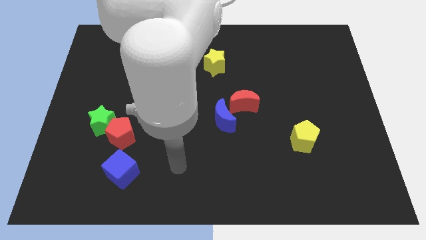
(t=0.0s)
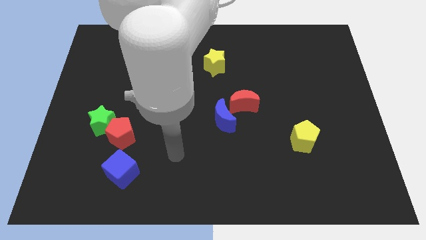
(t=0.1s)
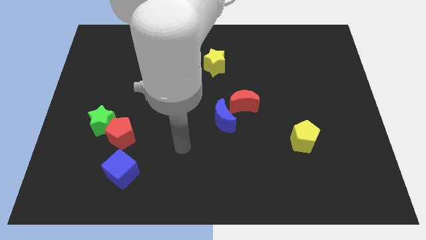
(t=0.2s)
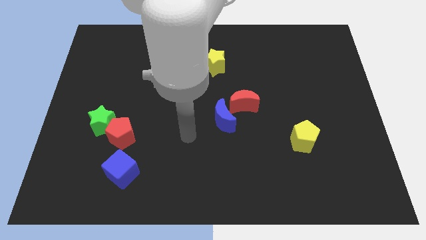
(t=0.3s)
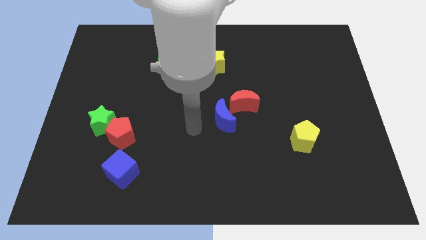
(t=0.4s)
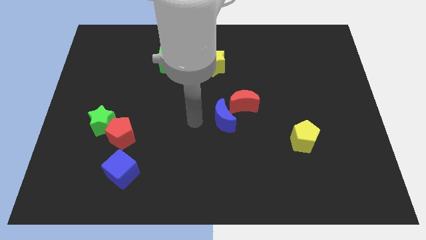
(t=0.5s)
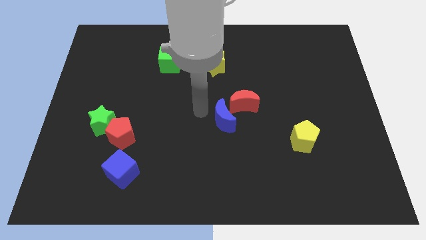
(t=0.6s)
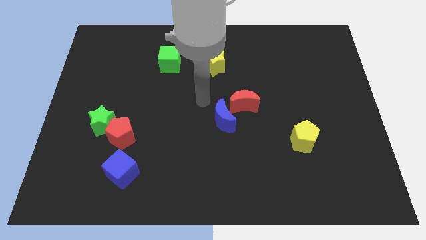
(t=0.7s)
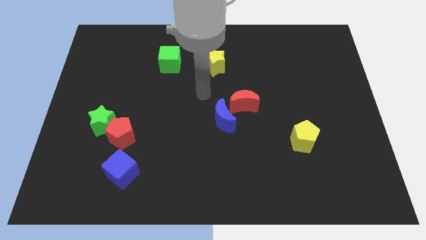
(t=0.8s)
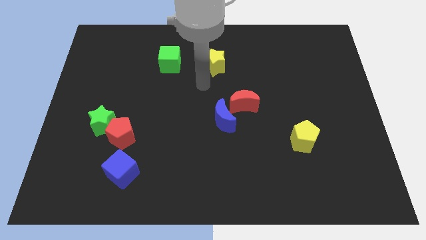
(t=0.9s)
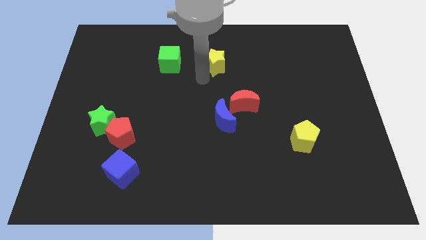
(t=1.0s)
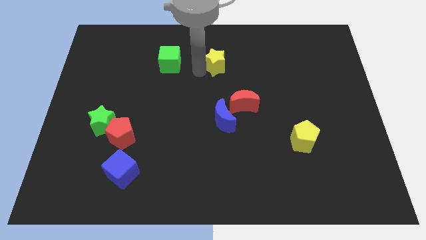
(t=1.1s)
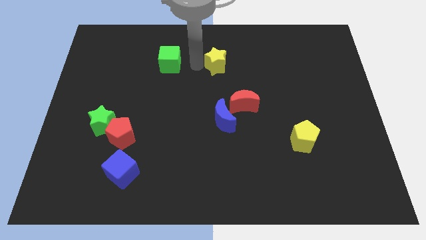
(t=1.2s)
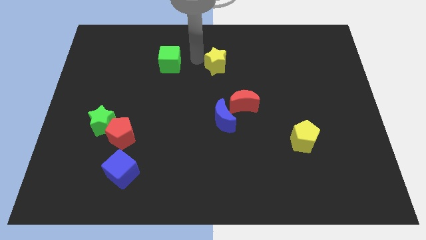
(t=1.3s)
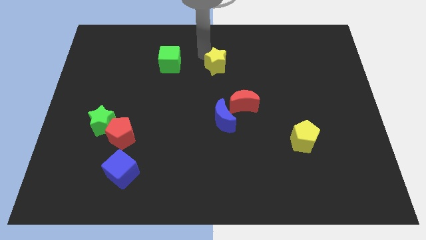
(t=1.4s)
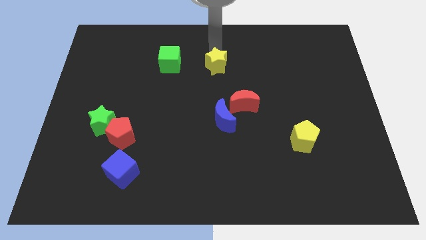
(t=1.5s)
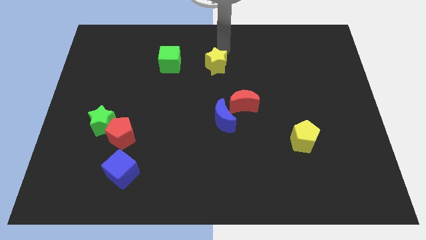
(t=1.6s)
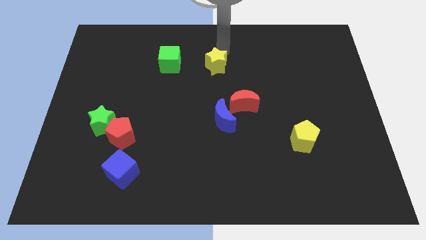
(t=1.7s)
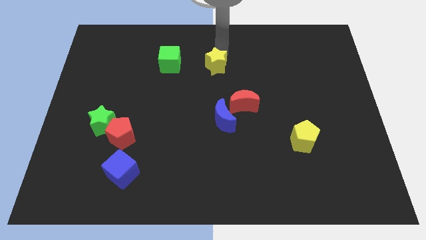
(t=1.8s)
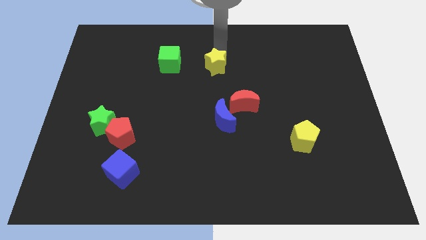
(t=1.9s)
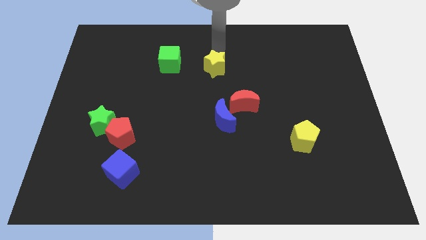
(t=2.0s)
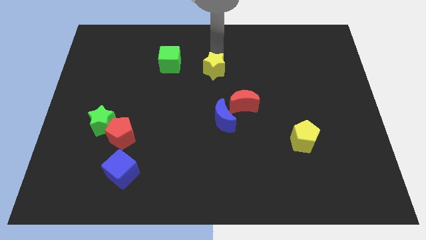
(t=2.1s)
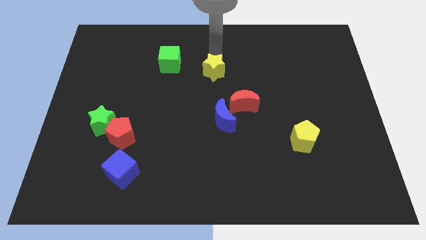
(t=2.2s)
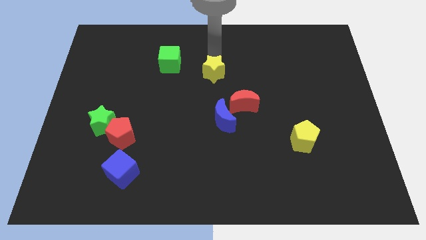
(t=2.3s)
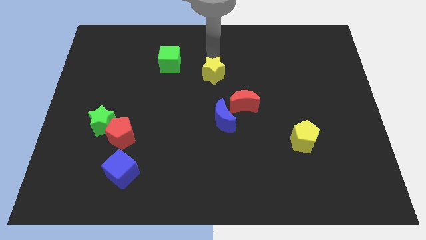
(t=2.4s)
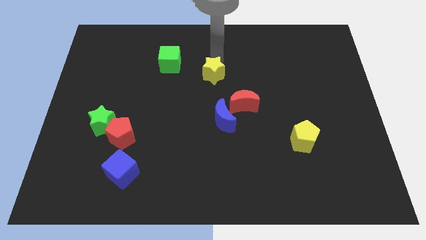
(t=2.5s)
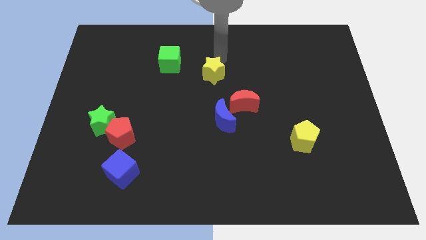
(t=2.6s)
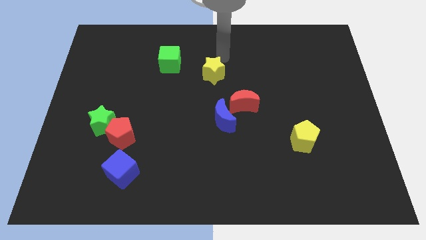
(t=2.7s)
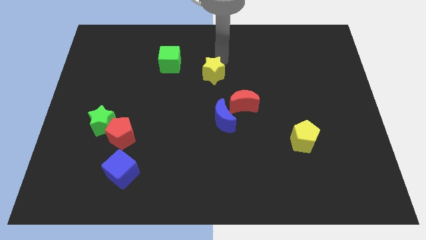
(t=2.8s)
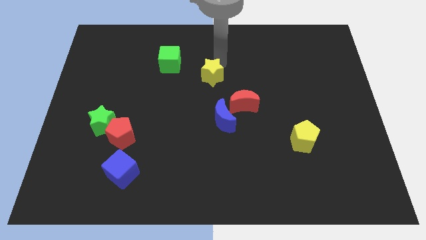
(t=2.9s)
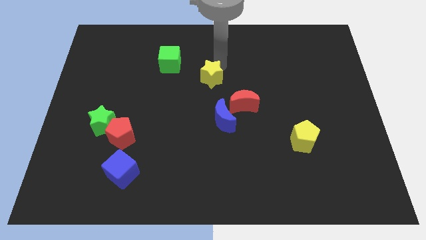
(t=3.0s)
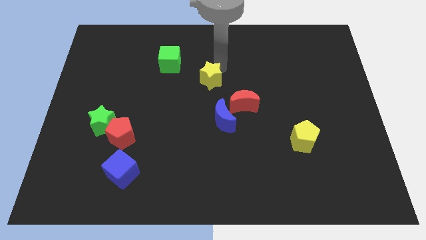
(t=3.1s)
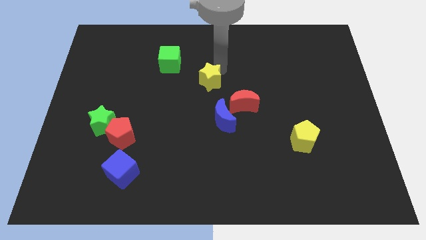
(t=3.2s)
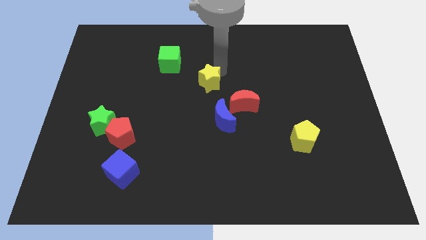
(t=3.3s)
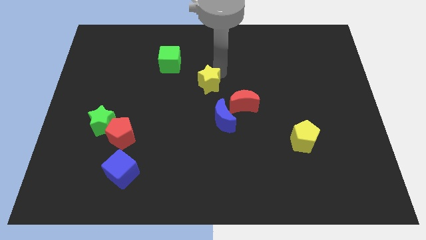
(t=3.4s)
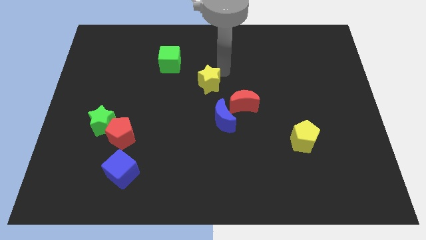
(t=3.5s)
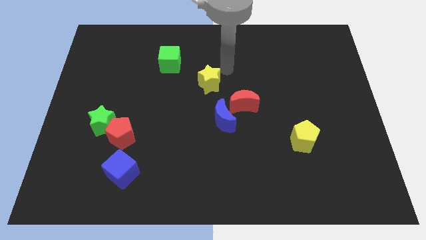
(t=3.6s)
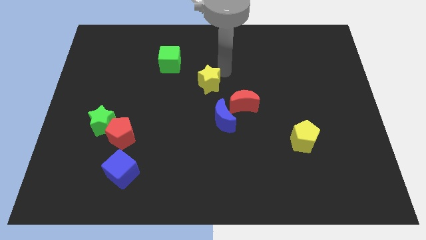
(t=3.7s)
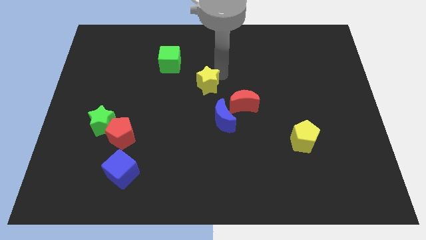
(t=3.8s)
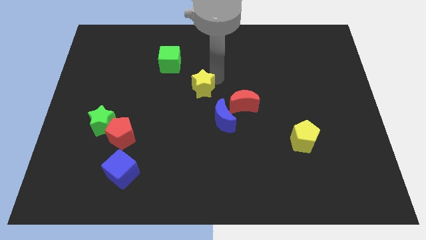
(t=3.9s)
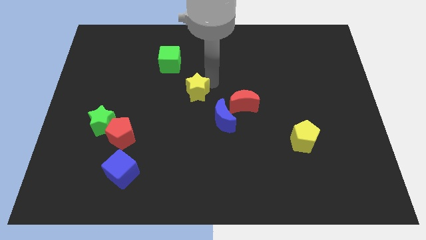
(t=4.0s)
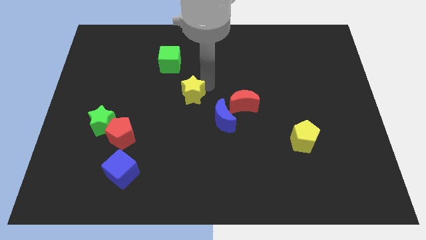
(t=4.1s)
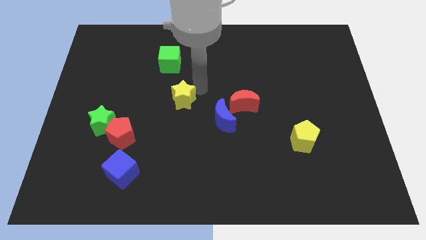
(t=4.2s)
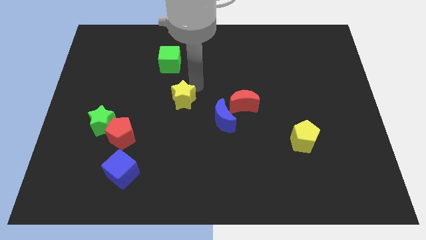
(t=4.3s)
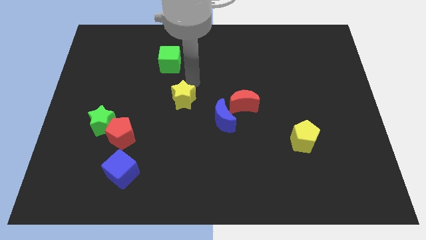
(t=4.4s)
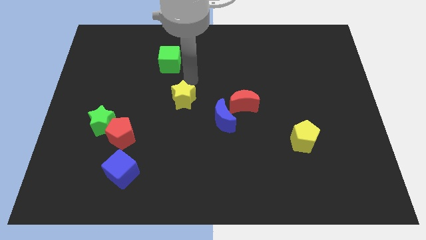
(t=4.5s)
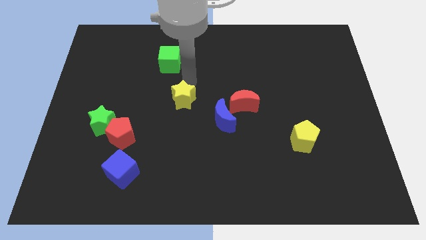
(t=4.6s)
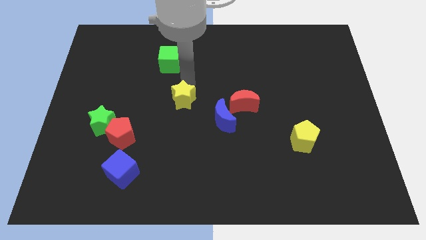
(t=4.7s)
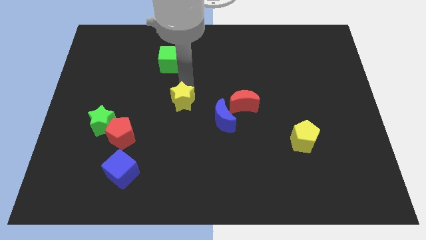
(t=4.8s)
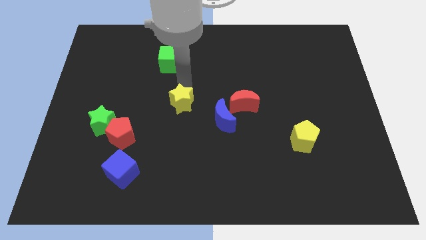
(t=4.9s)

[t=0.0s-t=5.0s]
put the yellow star left of the blue moon

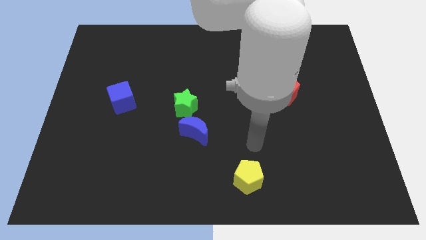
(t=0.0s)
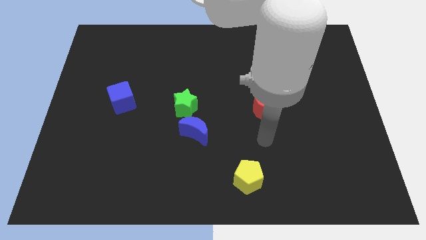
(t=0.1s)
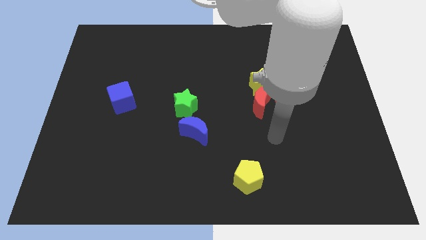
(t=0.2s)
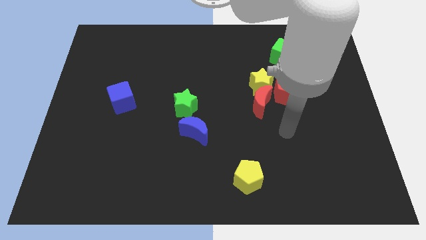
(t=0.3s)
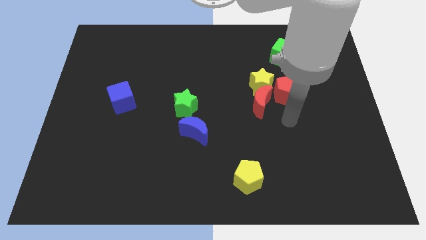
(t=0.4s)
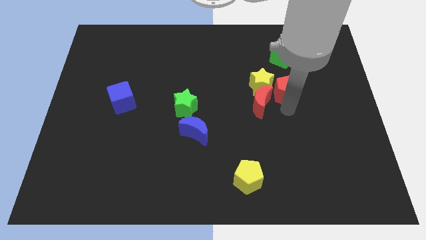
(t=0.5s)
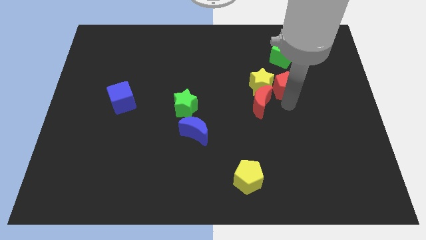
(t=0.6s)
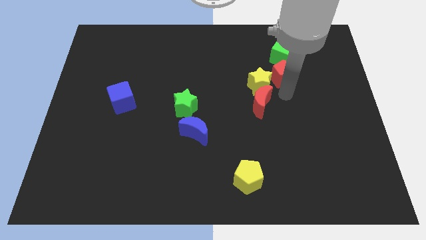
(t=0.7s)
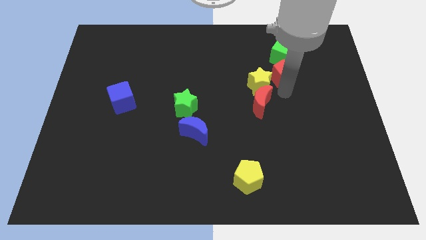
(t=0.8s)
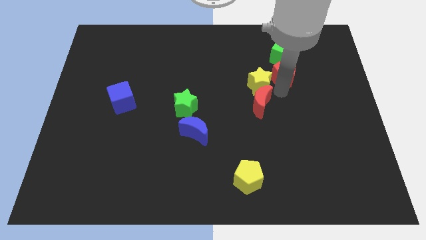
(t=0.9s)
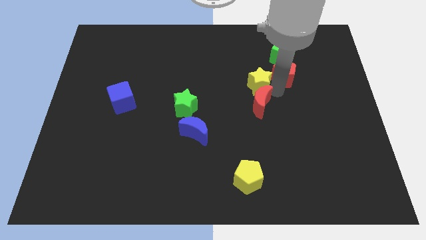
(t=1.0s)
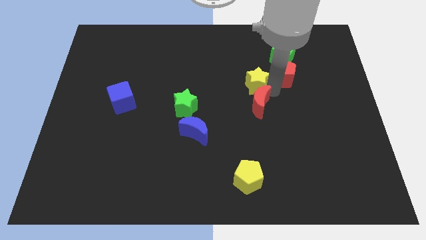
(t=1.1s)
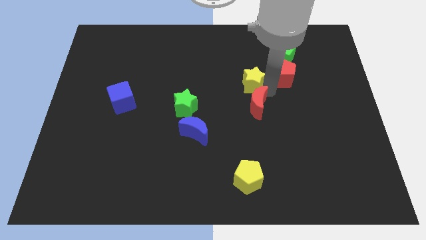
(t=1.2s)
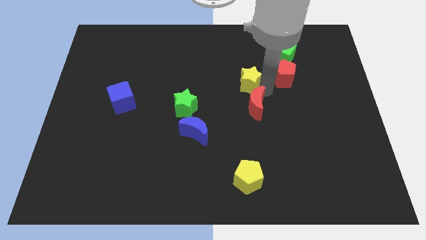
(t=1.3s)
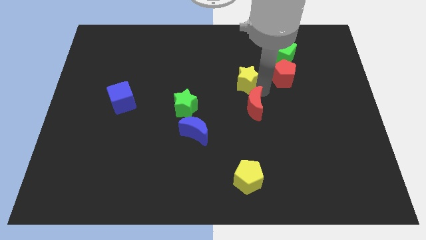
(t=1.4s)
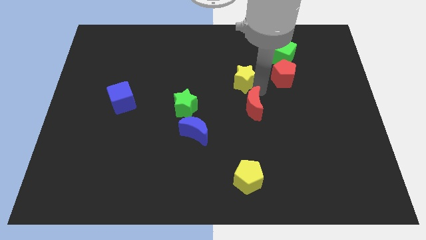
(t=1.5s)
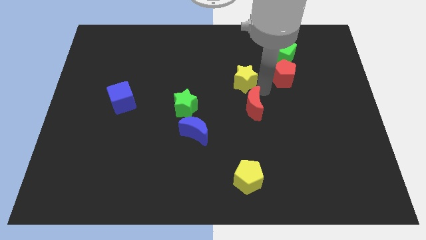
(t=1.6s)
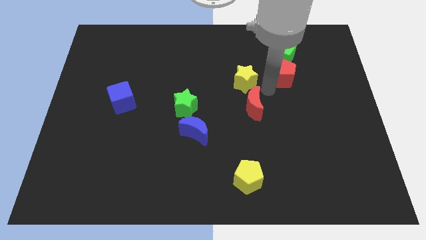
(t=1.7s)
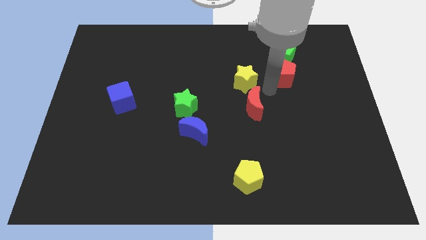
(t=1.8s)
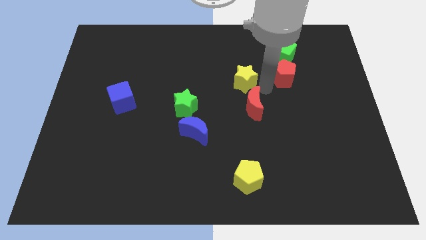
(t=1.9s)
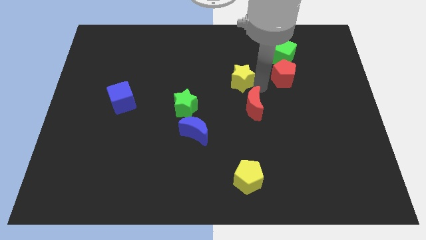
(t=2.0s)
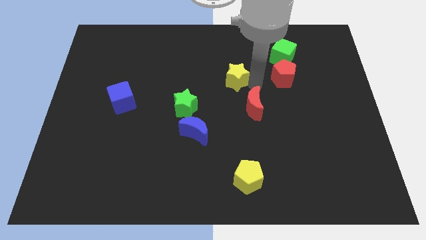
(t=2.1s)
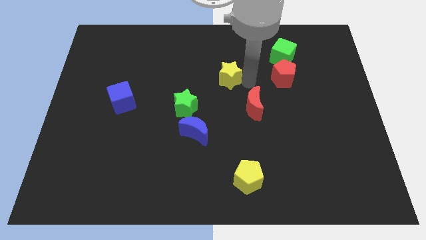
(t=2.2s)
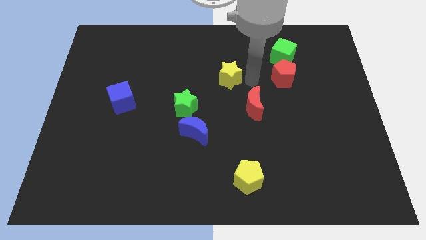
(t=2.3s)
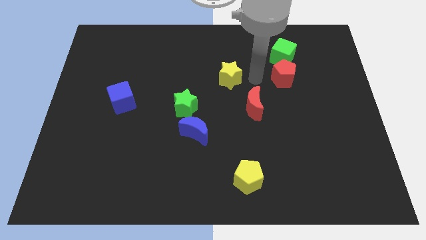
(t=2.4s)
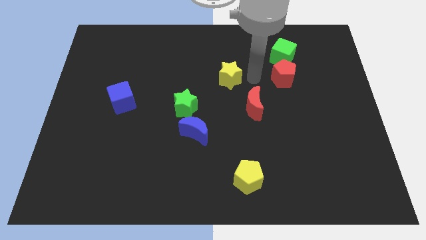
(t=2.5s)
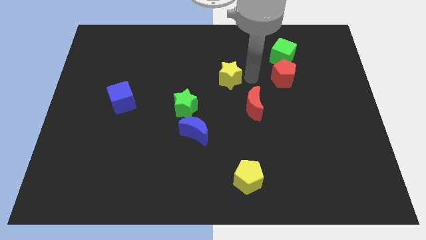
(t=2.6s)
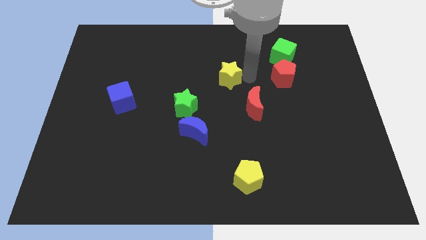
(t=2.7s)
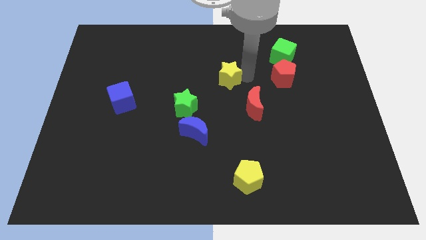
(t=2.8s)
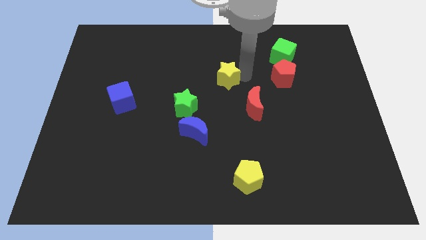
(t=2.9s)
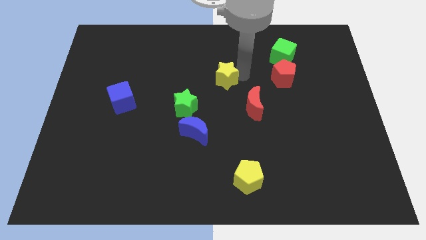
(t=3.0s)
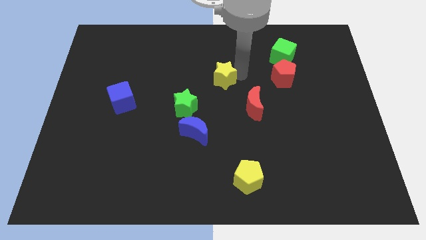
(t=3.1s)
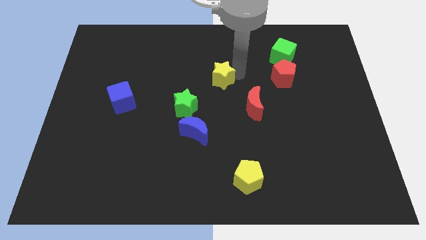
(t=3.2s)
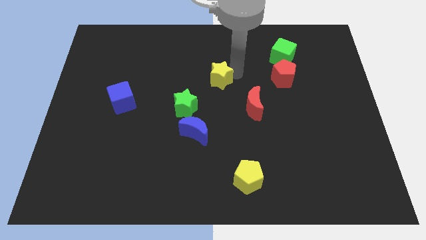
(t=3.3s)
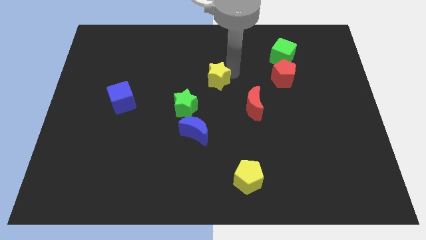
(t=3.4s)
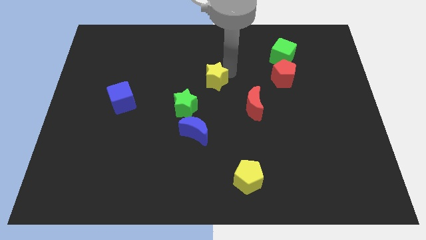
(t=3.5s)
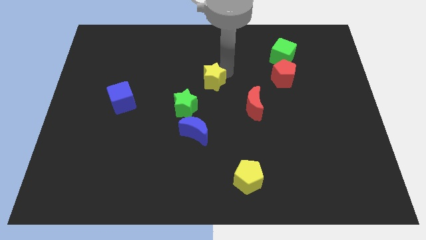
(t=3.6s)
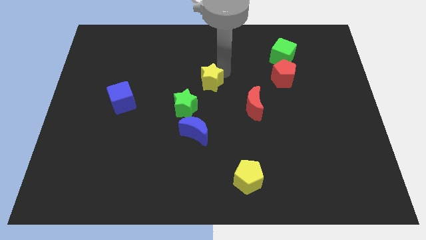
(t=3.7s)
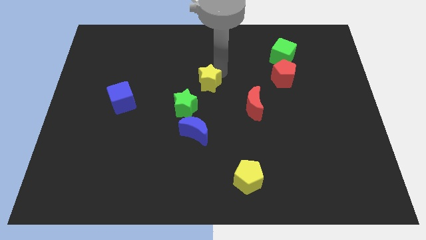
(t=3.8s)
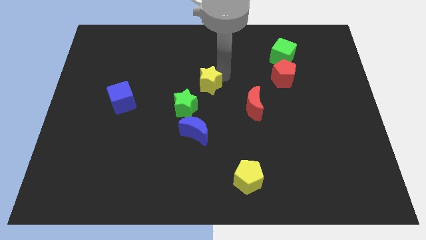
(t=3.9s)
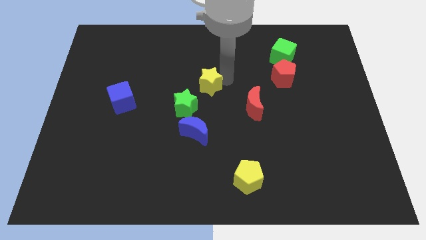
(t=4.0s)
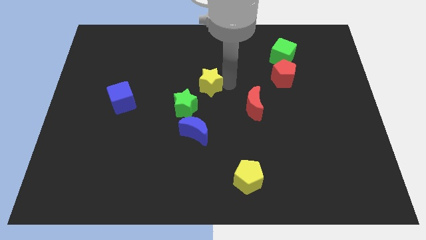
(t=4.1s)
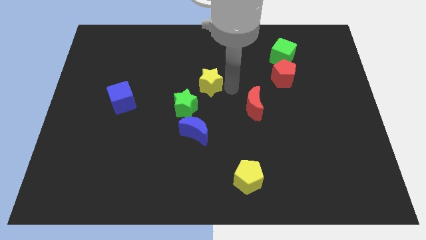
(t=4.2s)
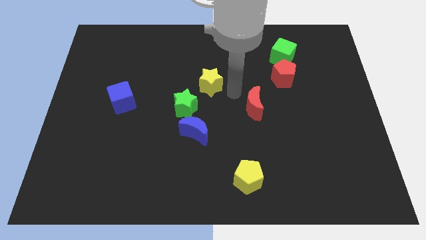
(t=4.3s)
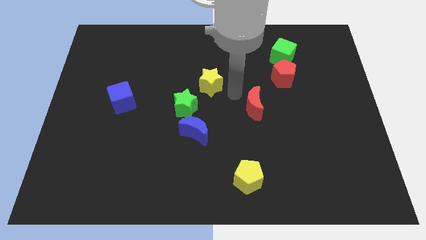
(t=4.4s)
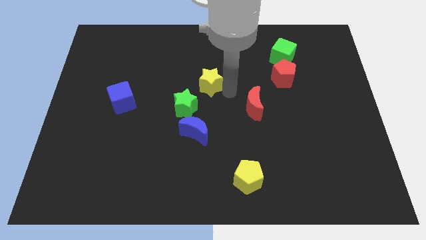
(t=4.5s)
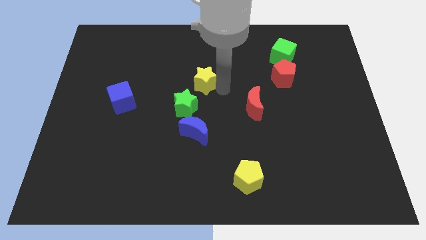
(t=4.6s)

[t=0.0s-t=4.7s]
put the yellow star to the top side of the green star
